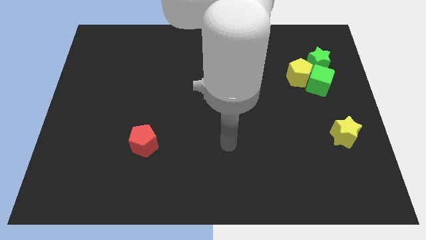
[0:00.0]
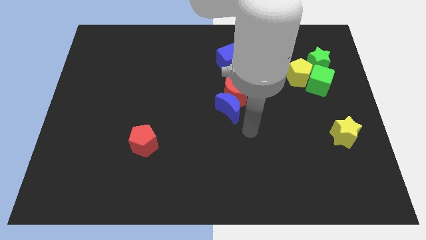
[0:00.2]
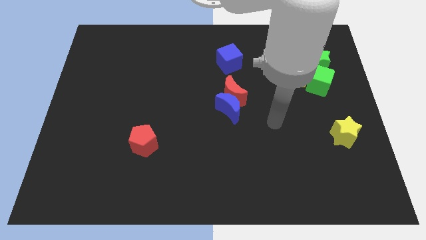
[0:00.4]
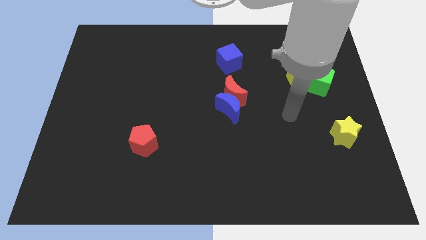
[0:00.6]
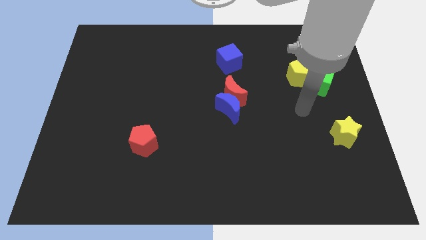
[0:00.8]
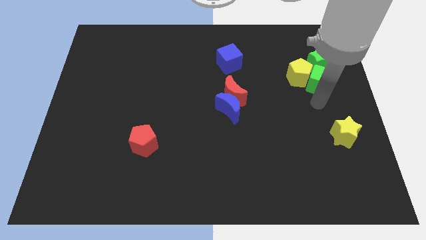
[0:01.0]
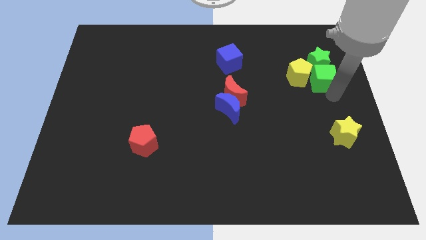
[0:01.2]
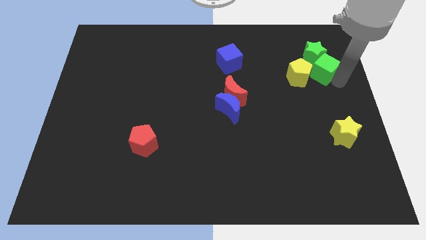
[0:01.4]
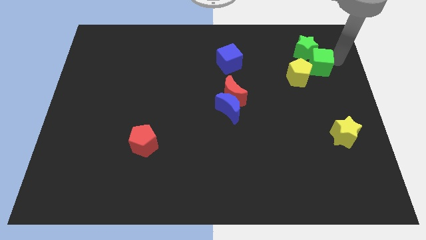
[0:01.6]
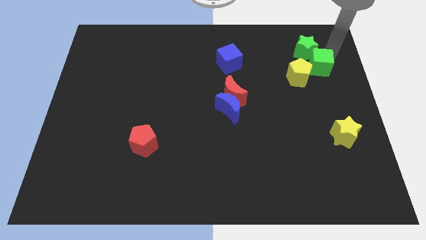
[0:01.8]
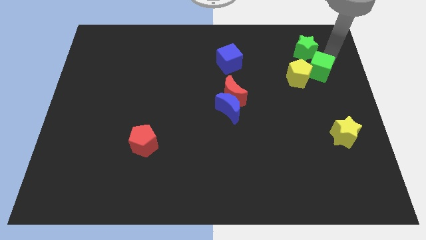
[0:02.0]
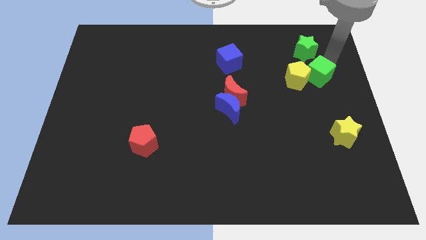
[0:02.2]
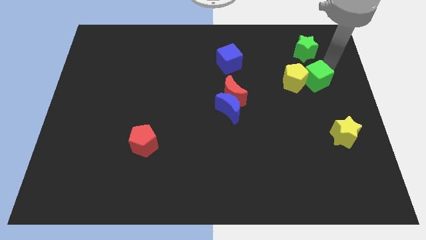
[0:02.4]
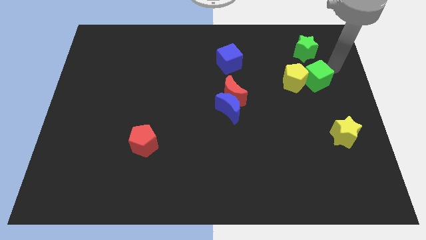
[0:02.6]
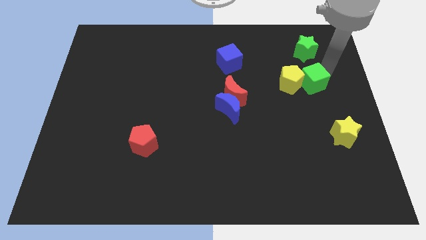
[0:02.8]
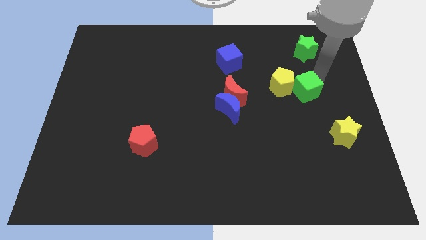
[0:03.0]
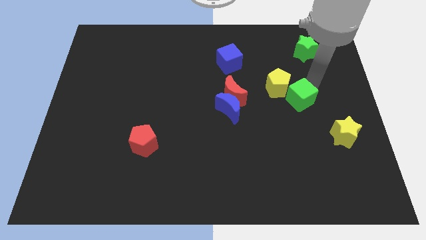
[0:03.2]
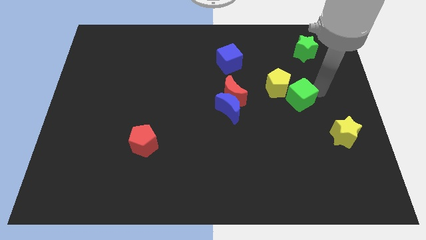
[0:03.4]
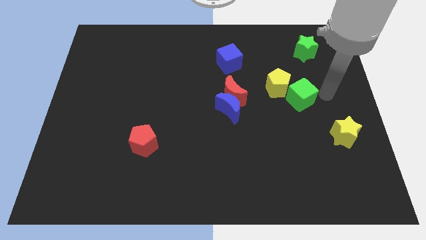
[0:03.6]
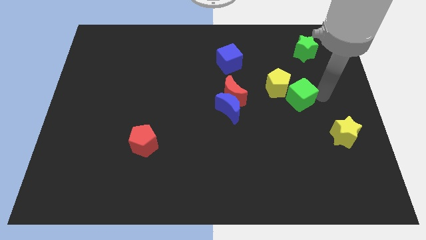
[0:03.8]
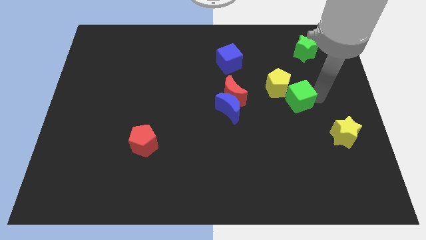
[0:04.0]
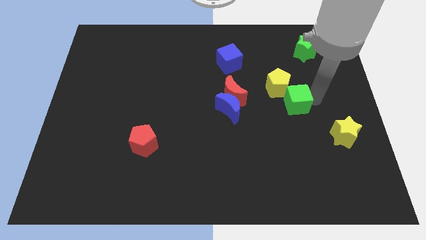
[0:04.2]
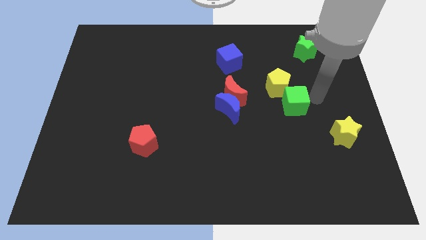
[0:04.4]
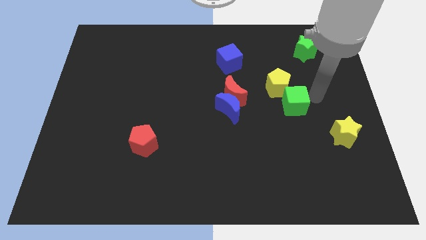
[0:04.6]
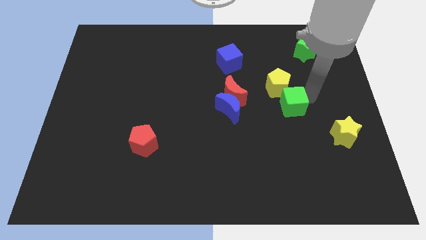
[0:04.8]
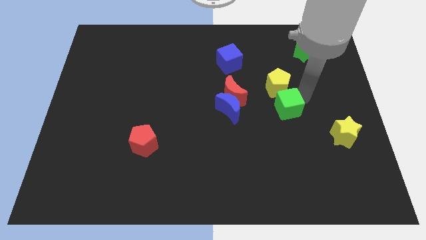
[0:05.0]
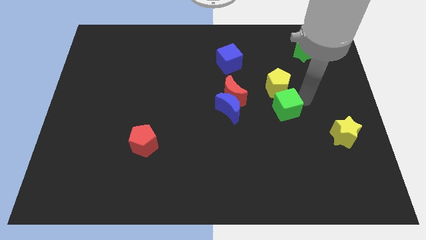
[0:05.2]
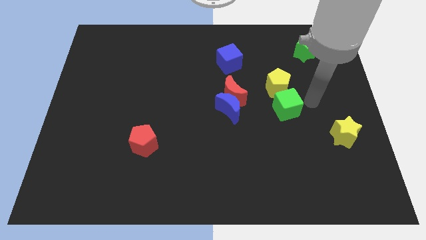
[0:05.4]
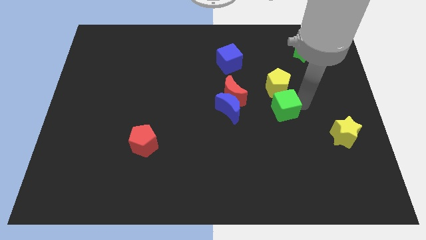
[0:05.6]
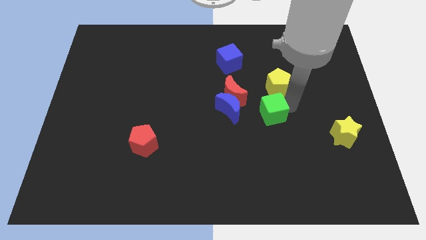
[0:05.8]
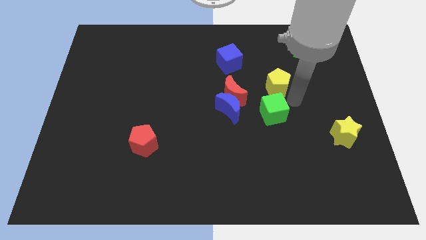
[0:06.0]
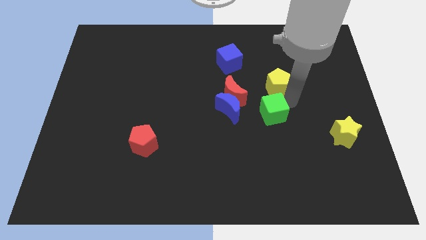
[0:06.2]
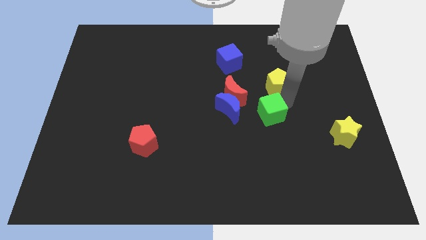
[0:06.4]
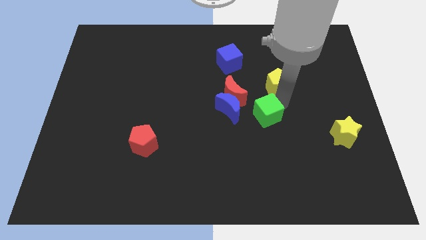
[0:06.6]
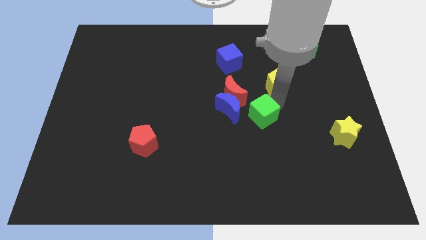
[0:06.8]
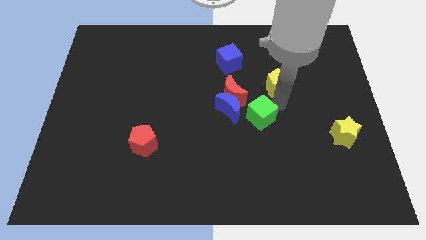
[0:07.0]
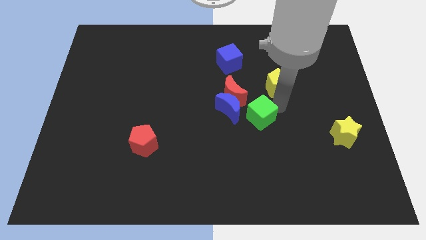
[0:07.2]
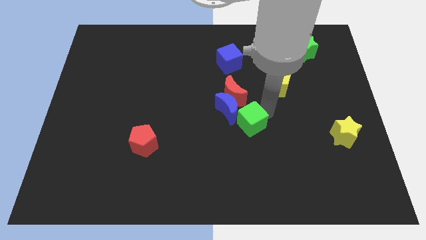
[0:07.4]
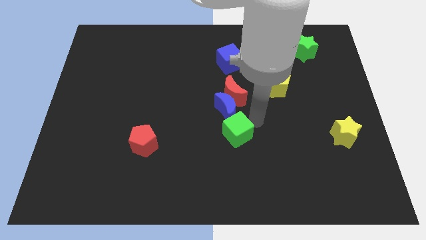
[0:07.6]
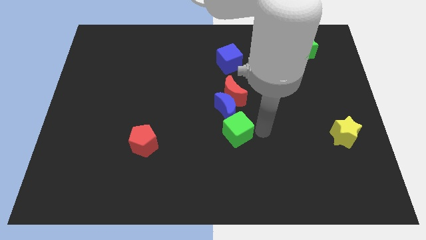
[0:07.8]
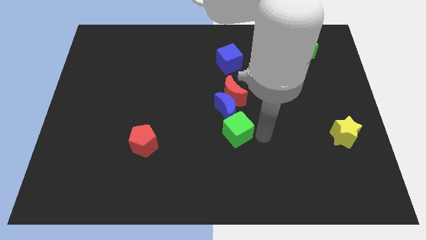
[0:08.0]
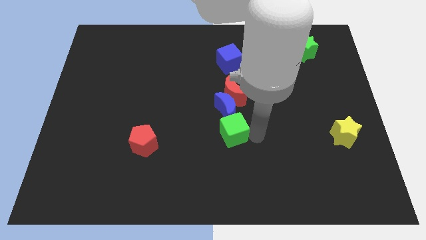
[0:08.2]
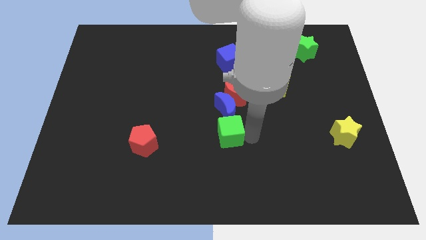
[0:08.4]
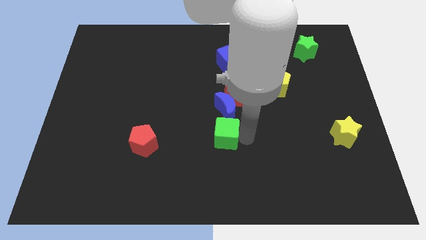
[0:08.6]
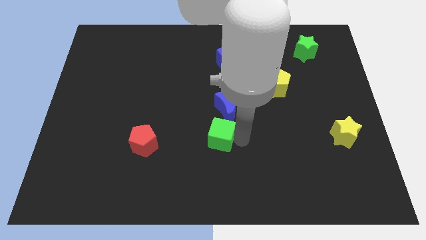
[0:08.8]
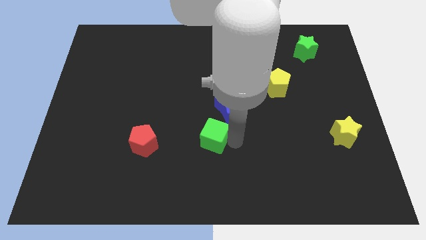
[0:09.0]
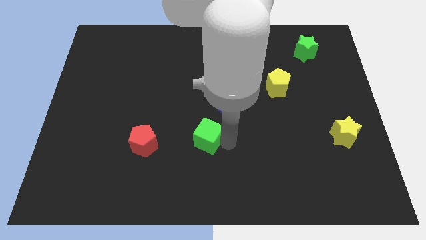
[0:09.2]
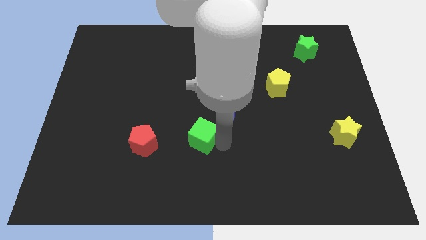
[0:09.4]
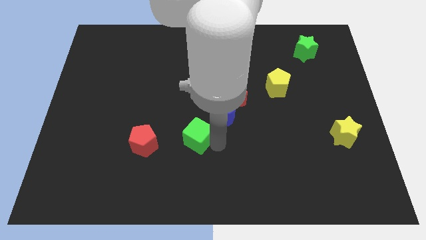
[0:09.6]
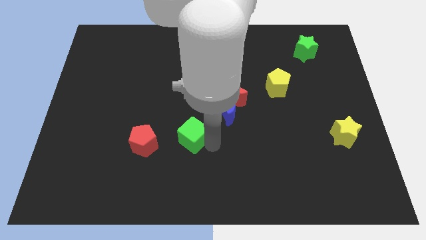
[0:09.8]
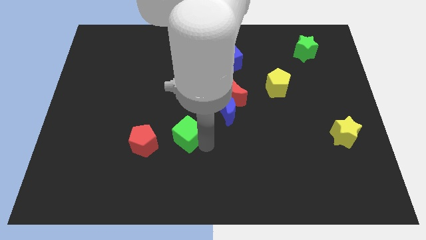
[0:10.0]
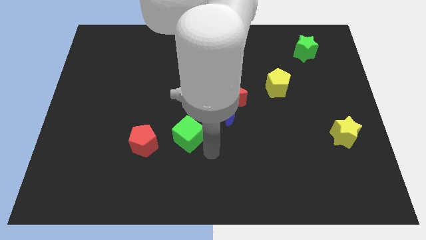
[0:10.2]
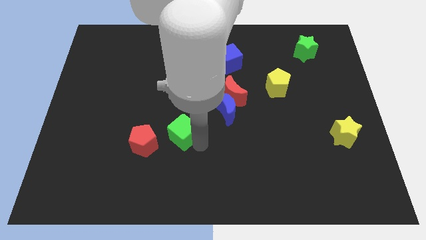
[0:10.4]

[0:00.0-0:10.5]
put the green cube to the top right of the red pentagon

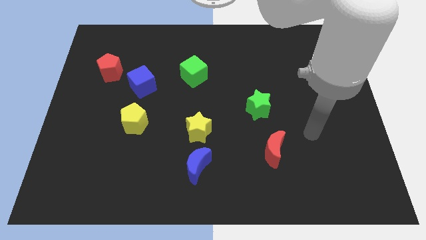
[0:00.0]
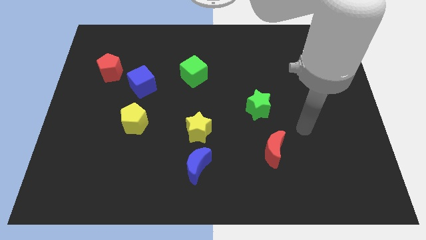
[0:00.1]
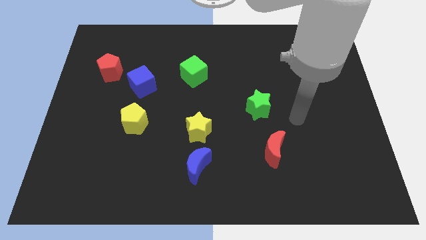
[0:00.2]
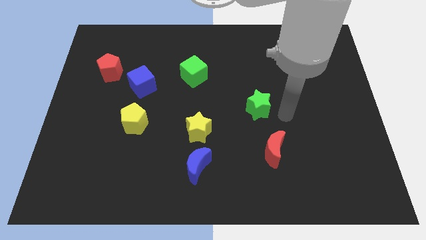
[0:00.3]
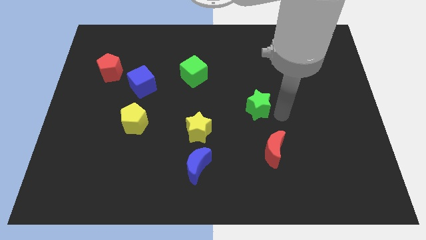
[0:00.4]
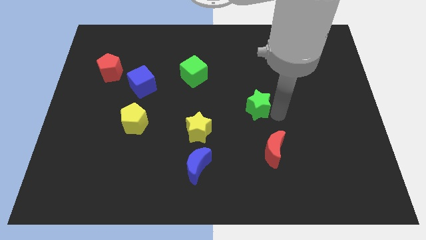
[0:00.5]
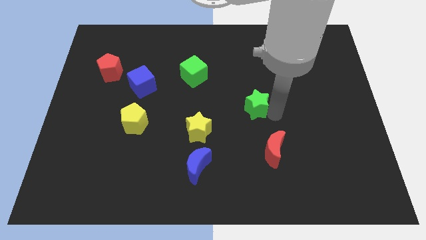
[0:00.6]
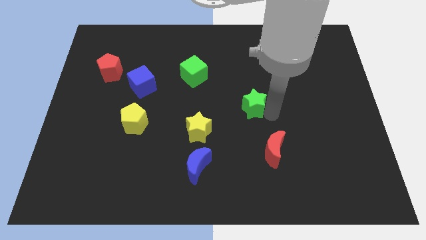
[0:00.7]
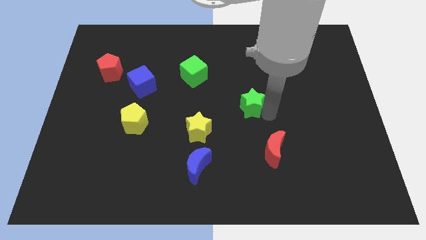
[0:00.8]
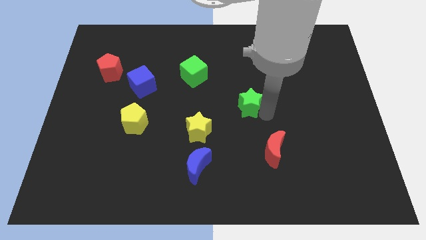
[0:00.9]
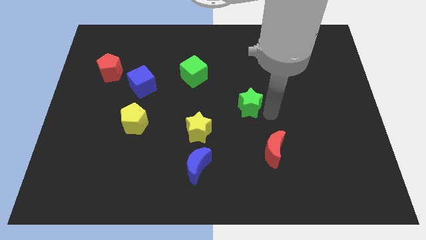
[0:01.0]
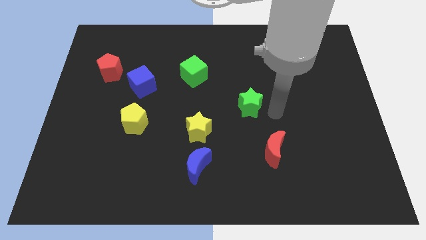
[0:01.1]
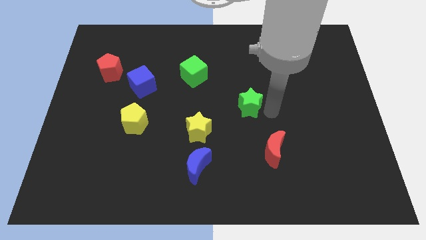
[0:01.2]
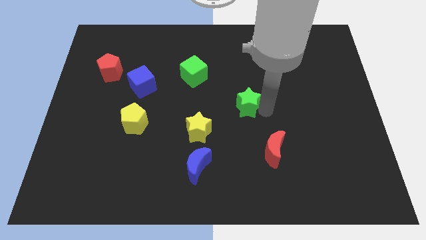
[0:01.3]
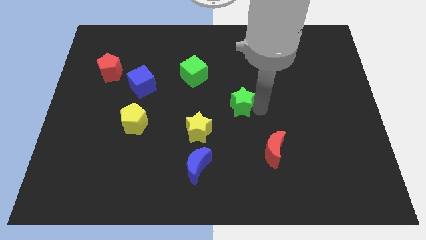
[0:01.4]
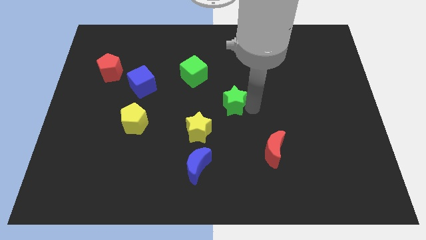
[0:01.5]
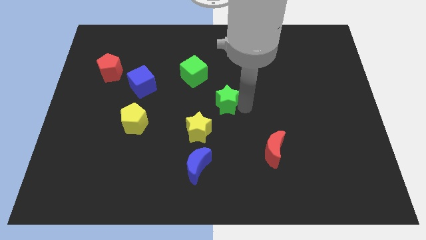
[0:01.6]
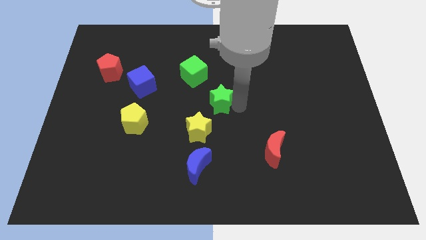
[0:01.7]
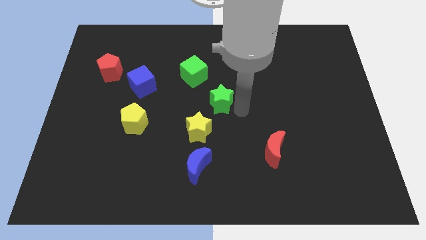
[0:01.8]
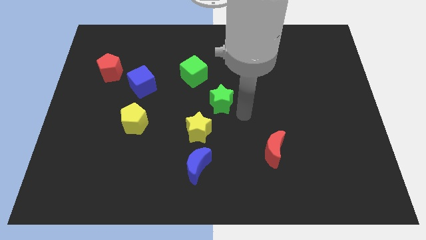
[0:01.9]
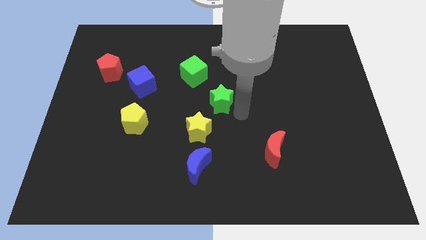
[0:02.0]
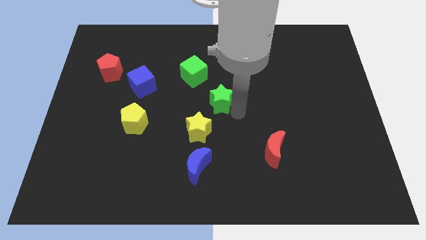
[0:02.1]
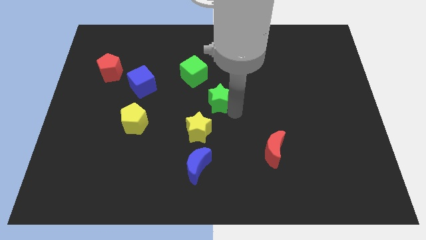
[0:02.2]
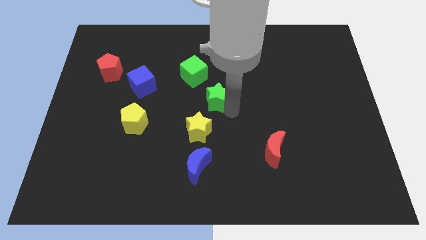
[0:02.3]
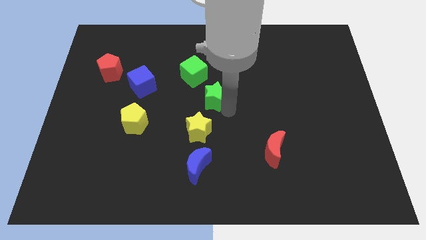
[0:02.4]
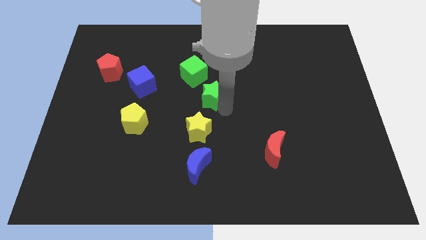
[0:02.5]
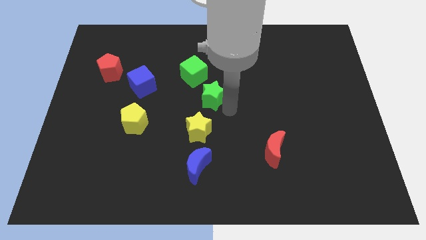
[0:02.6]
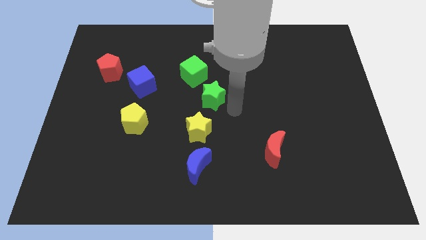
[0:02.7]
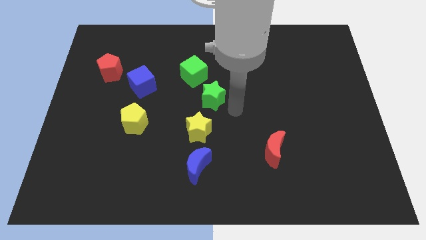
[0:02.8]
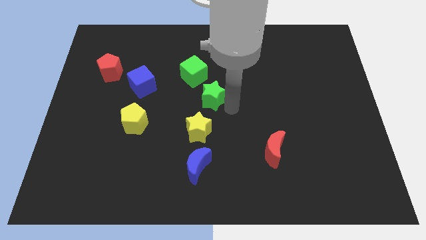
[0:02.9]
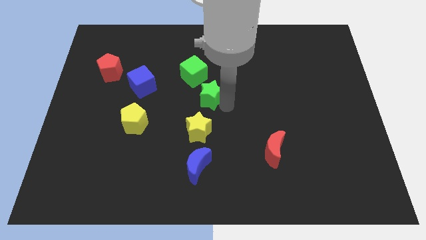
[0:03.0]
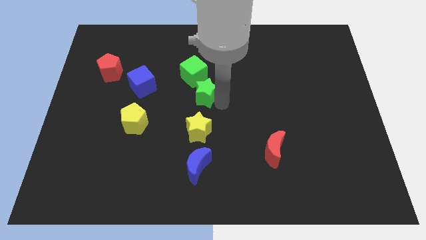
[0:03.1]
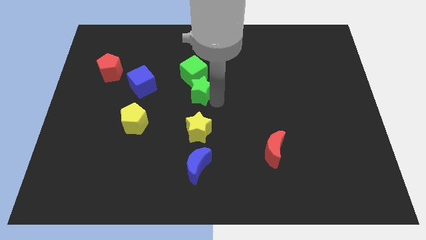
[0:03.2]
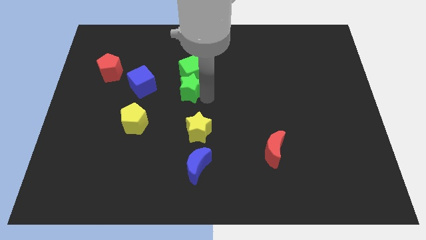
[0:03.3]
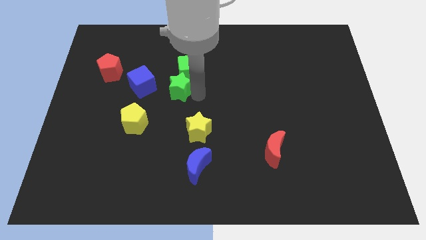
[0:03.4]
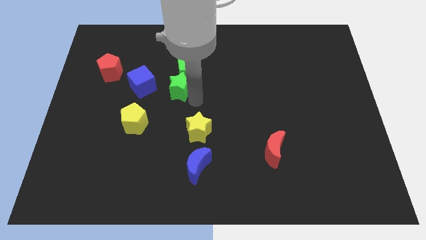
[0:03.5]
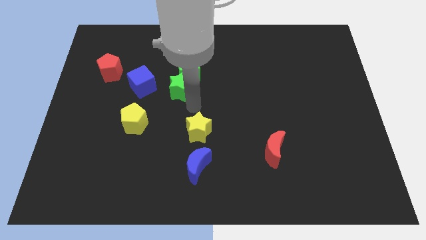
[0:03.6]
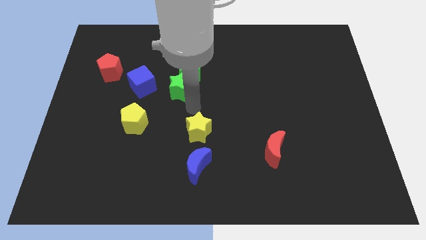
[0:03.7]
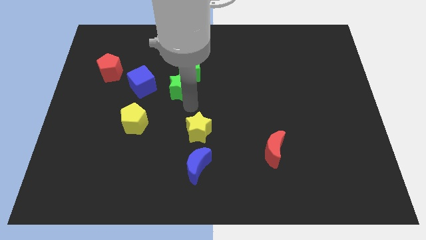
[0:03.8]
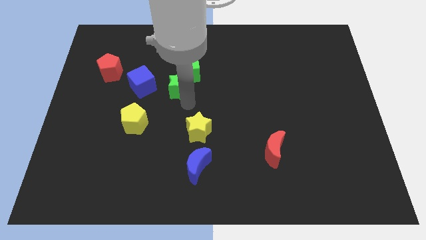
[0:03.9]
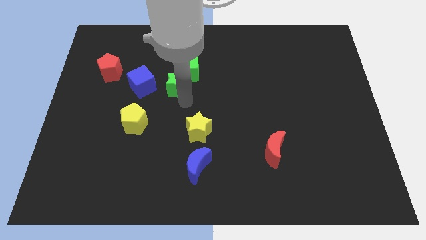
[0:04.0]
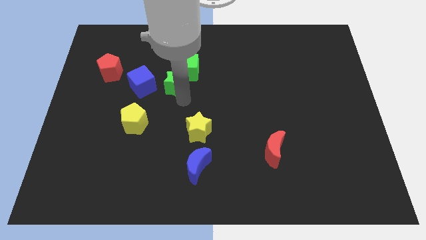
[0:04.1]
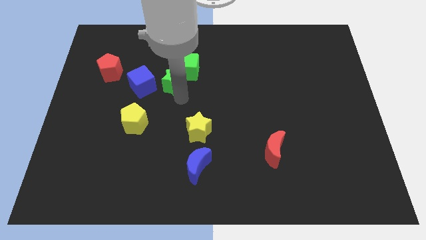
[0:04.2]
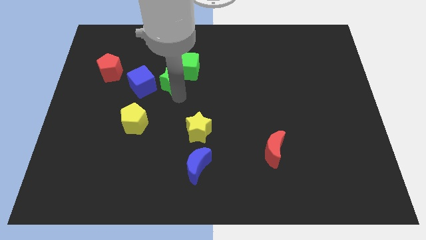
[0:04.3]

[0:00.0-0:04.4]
put the green star to the top right side of the blue cube
